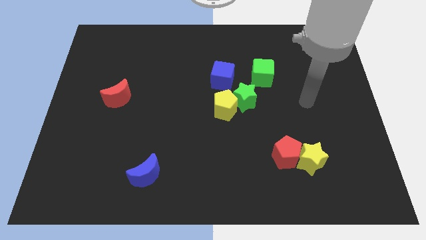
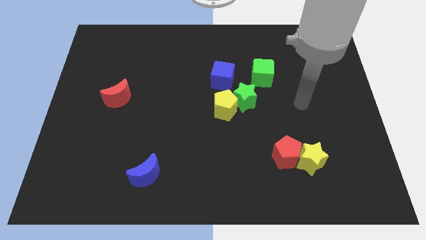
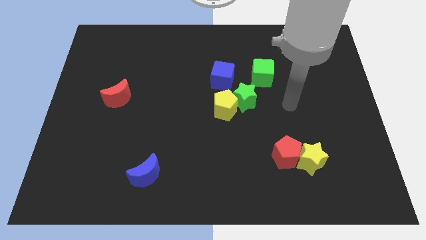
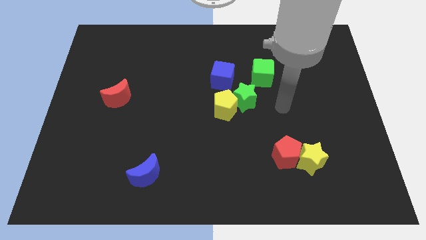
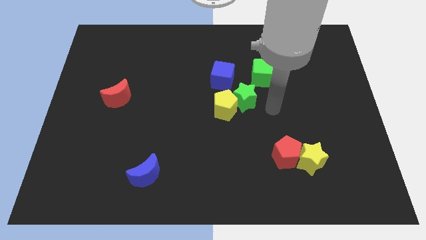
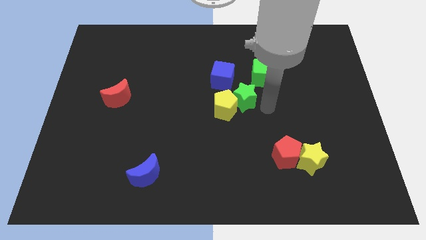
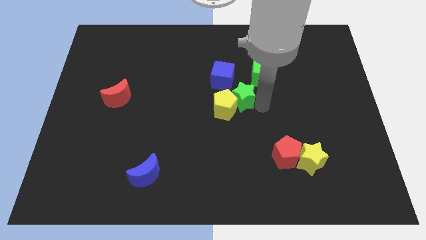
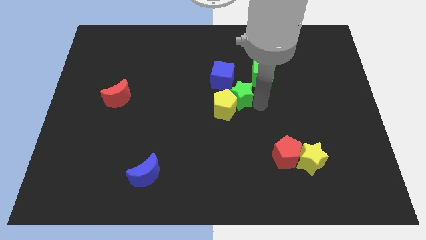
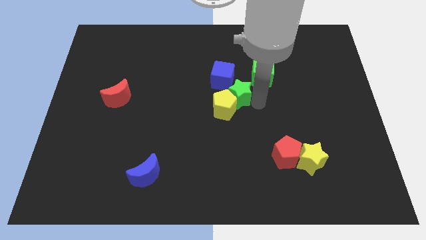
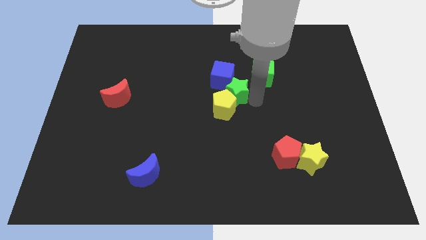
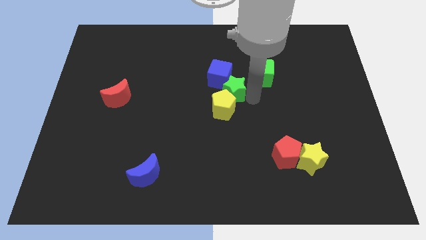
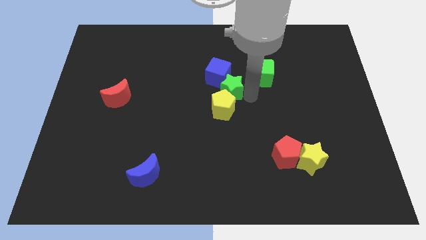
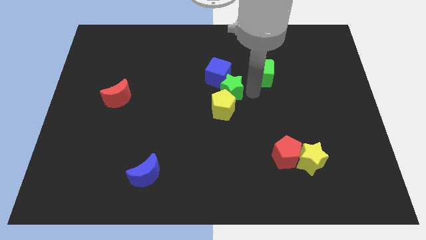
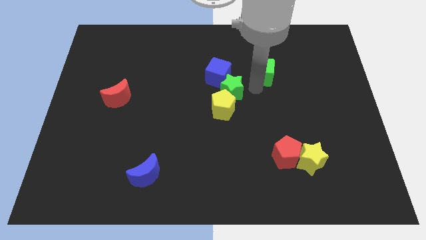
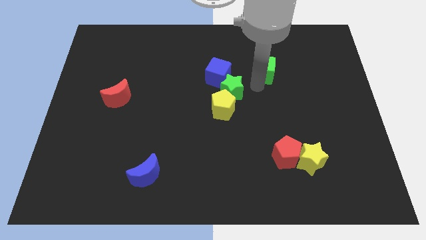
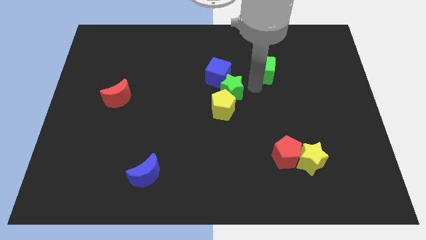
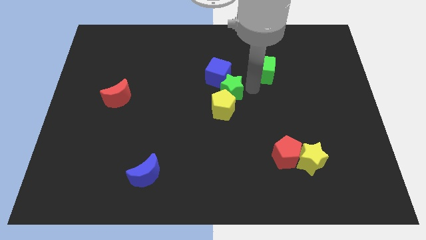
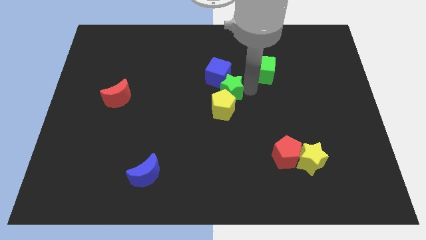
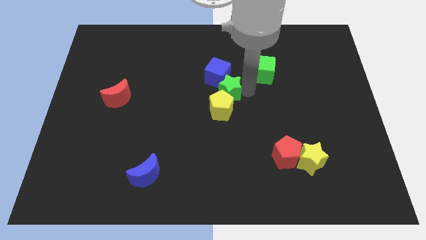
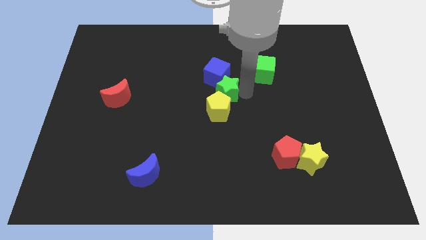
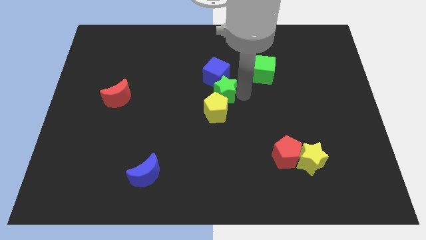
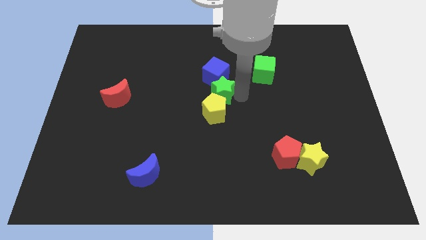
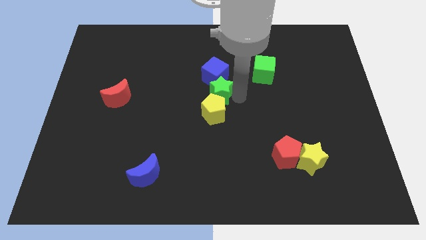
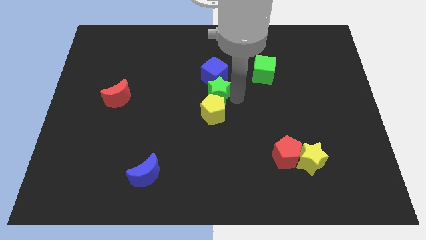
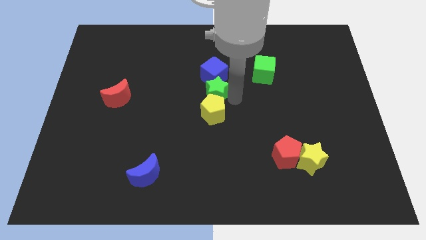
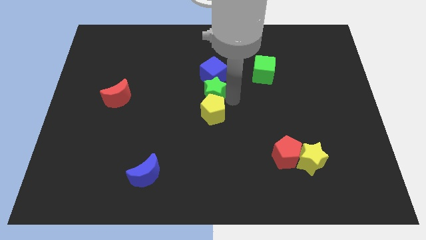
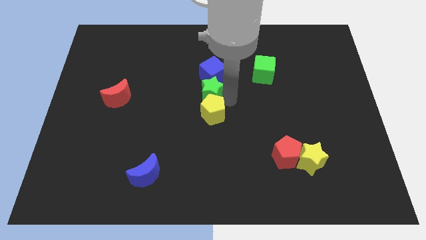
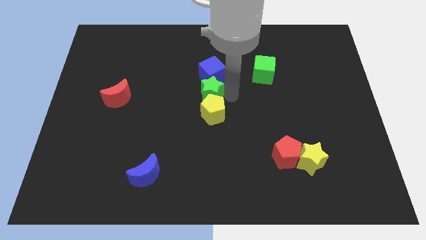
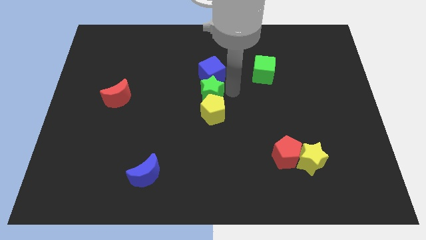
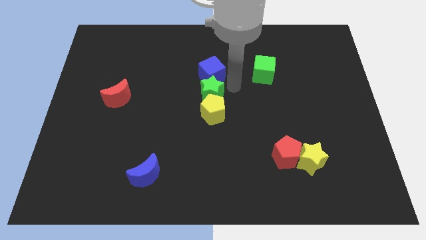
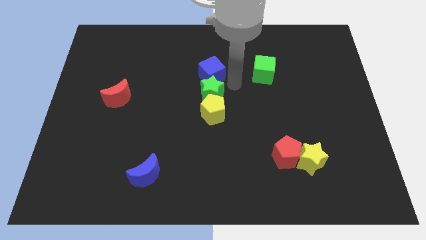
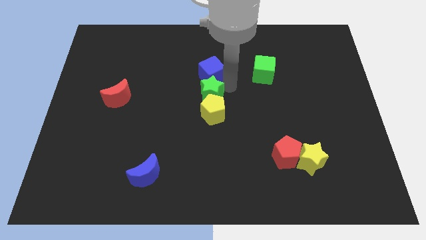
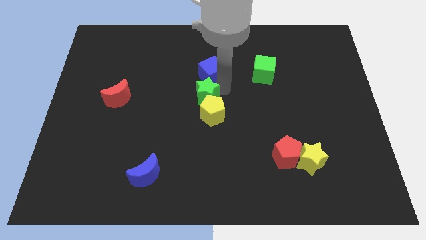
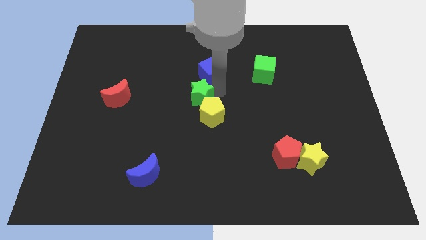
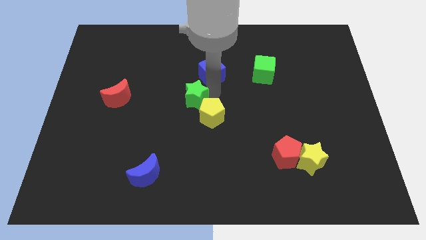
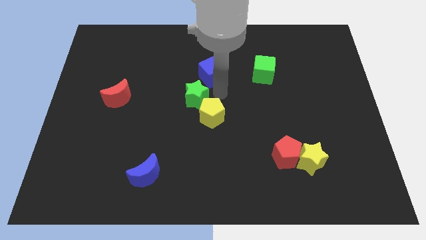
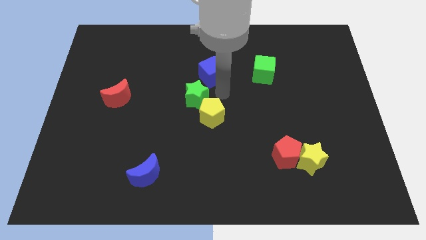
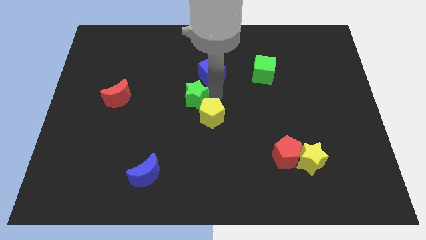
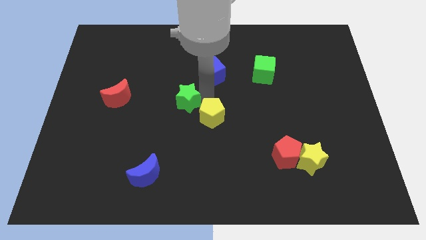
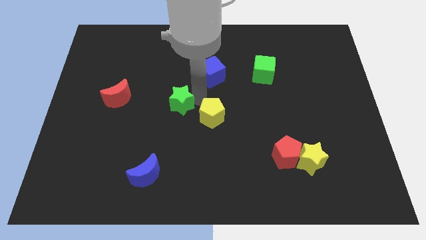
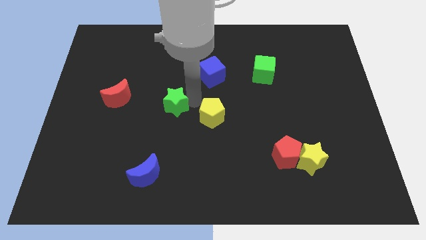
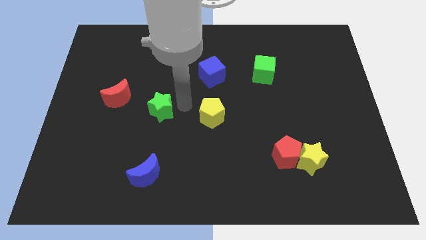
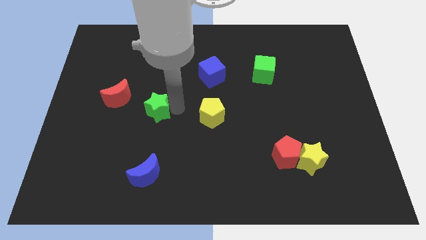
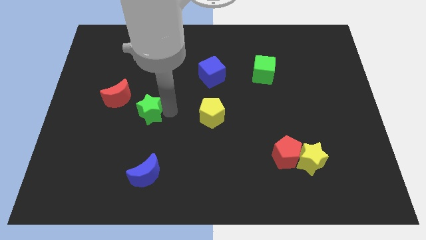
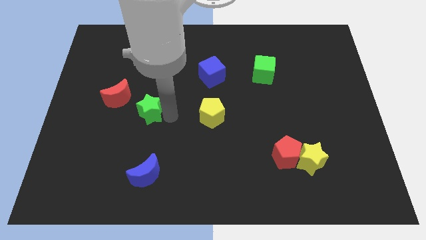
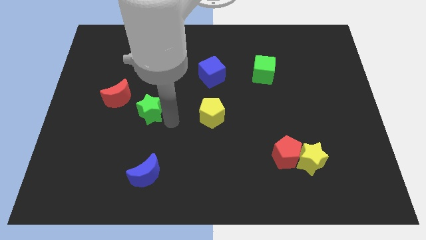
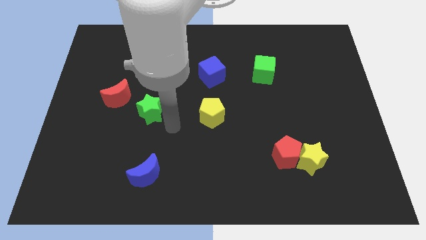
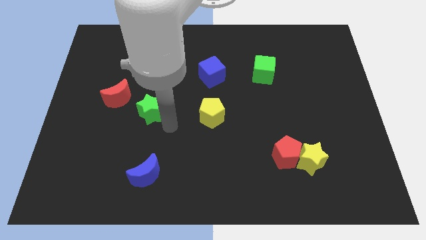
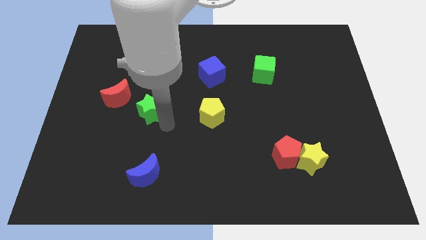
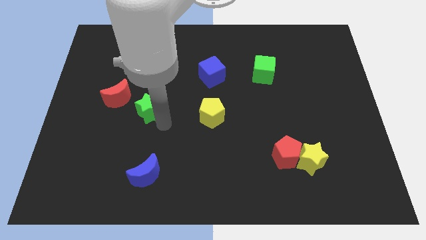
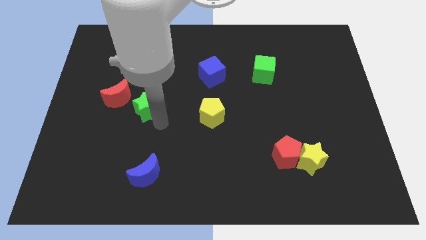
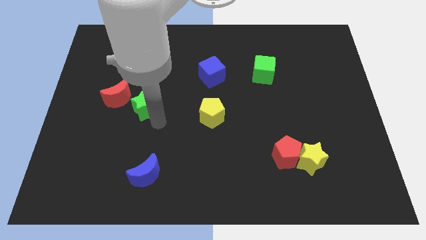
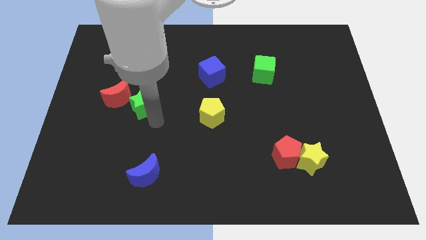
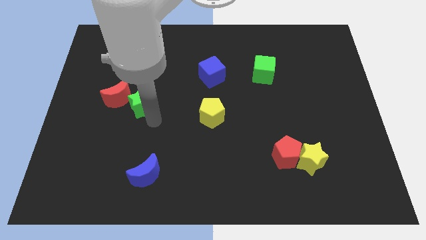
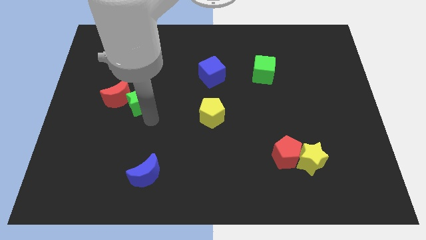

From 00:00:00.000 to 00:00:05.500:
slide the green star towards the red moon

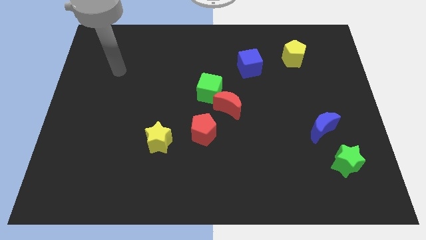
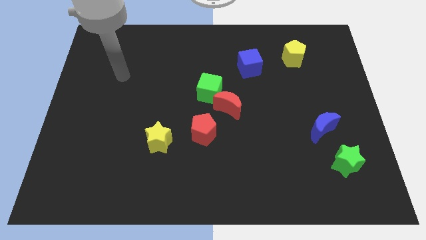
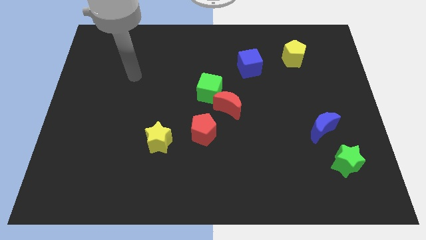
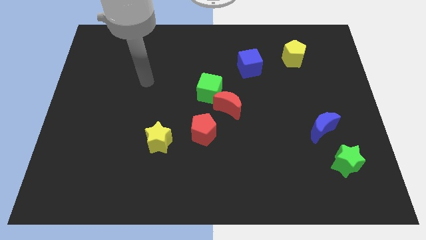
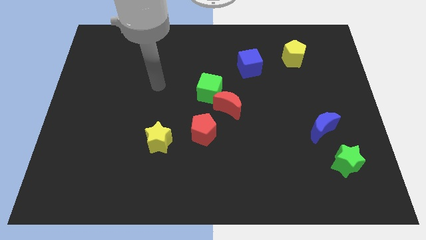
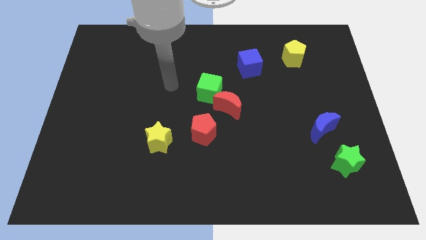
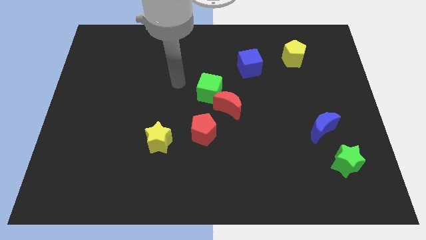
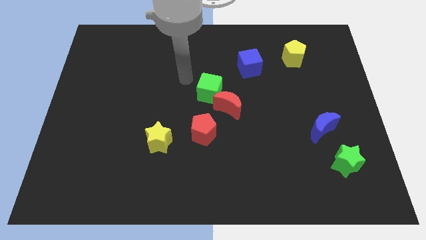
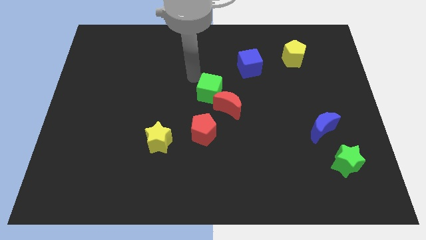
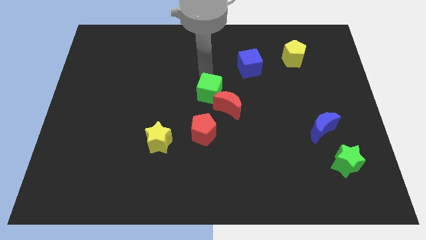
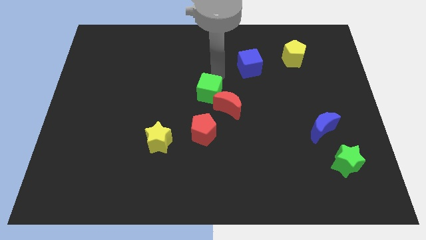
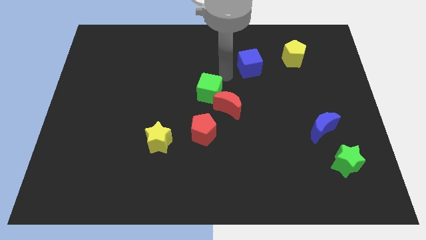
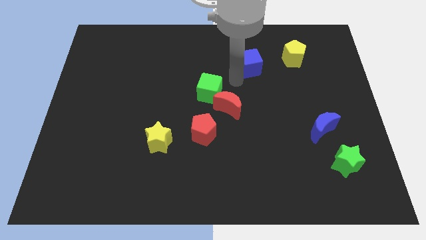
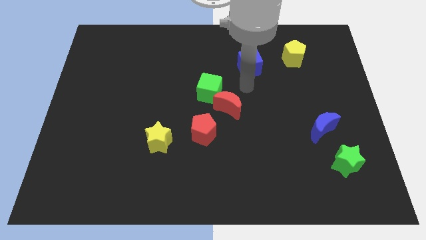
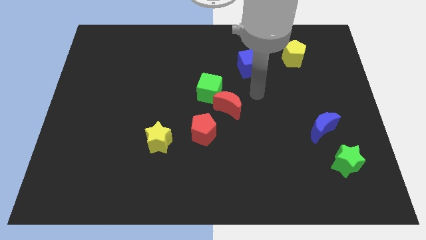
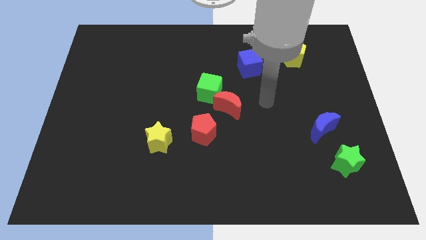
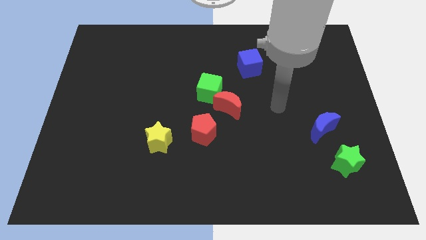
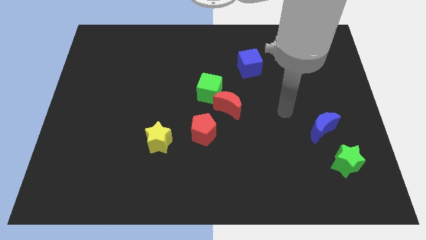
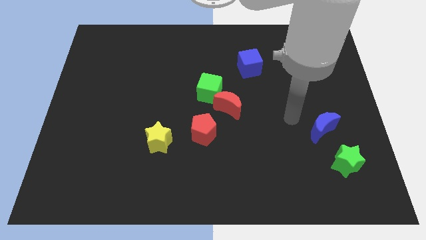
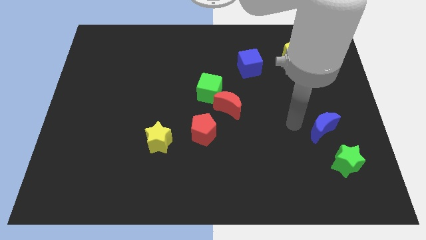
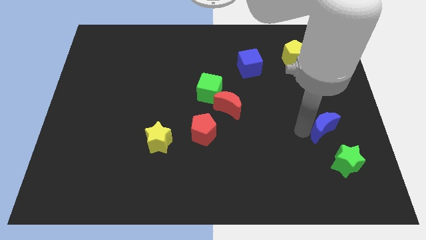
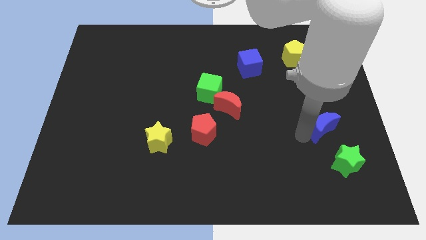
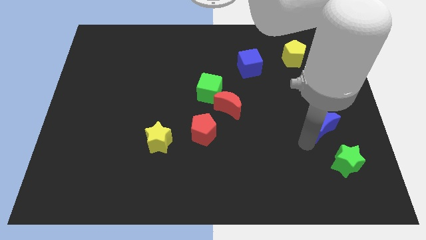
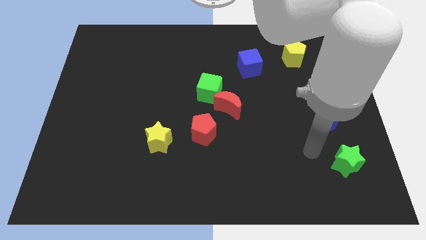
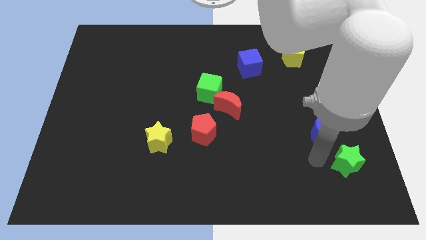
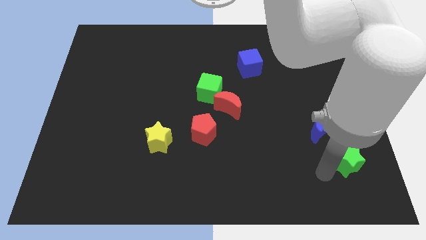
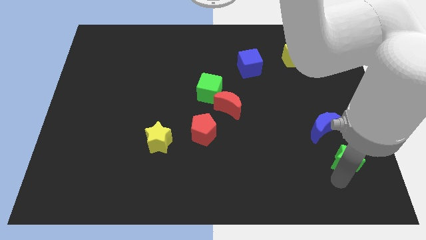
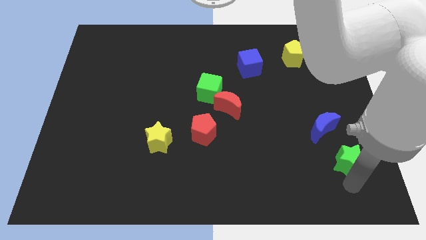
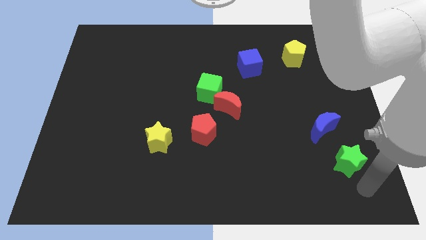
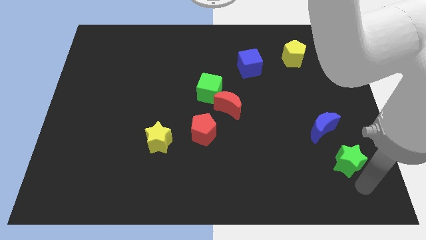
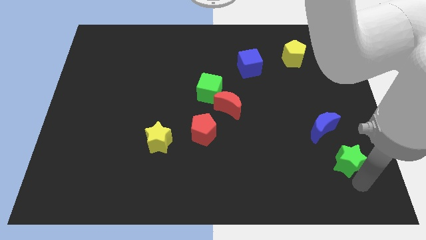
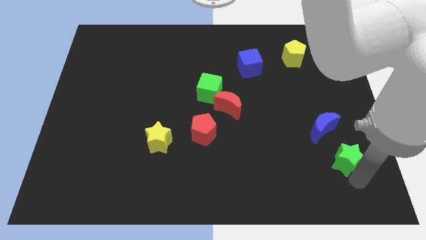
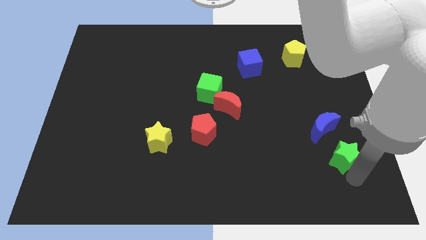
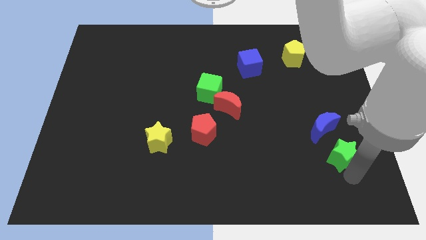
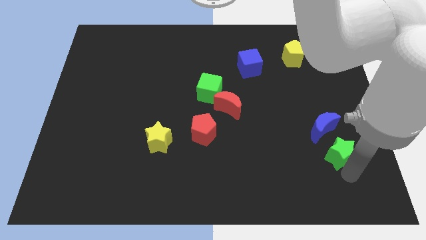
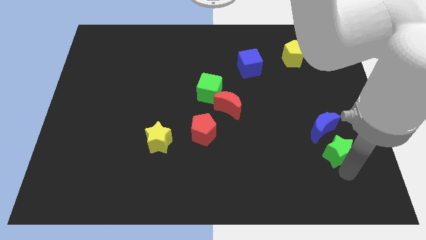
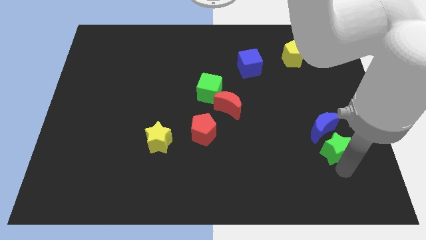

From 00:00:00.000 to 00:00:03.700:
slide the green star to the blue moon
